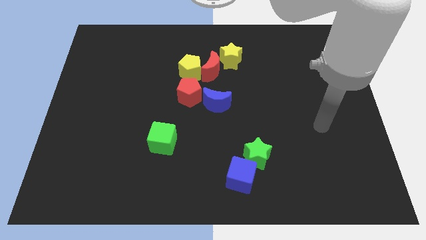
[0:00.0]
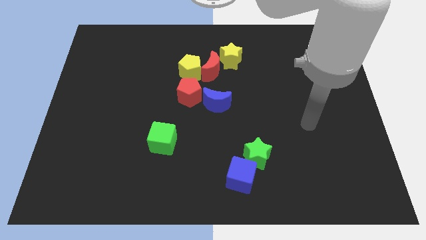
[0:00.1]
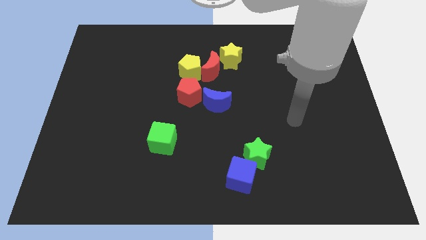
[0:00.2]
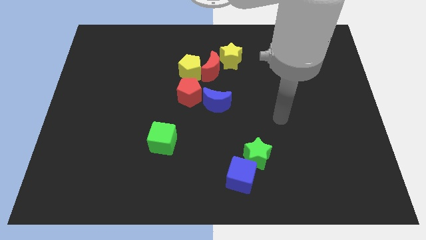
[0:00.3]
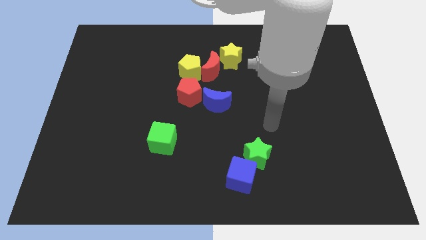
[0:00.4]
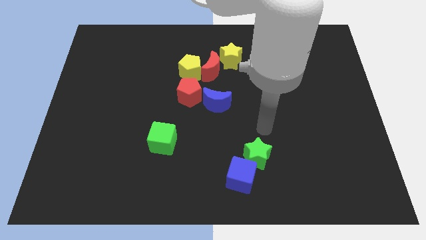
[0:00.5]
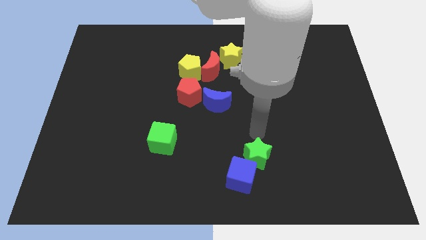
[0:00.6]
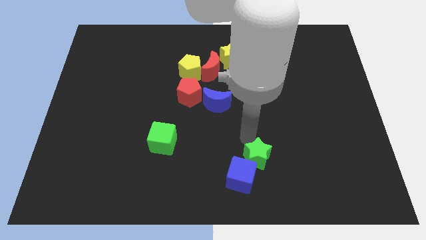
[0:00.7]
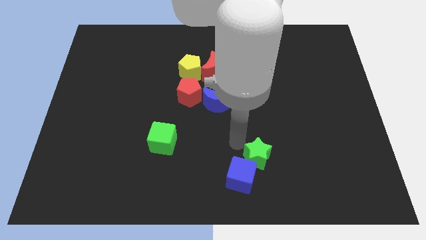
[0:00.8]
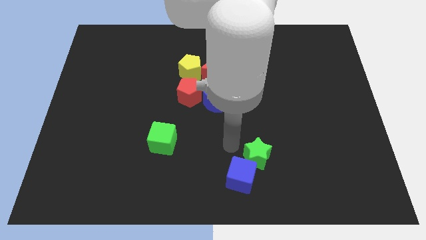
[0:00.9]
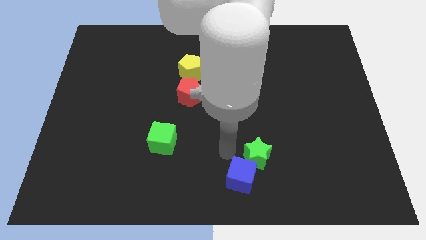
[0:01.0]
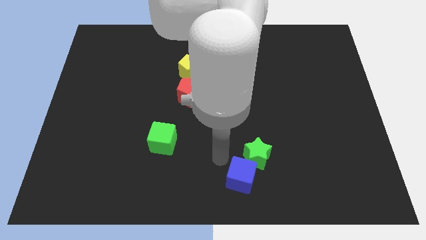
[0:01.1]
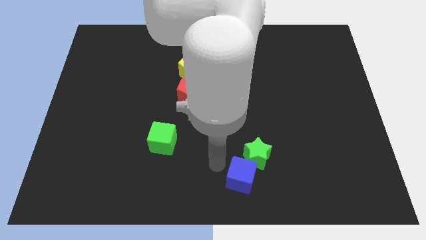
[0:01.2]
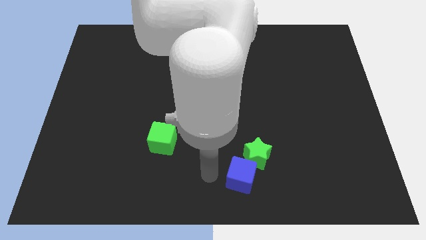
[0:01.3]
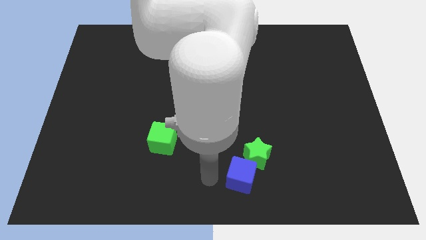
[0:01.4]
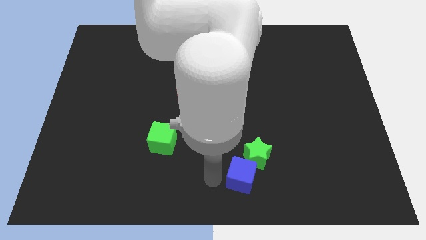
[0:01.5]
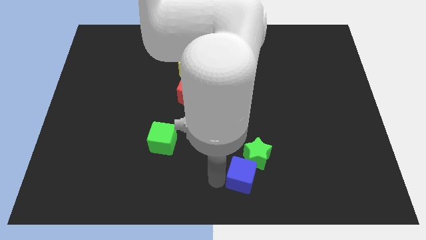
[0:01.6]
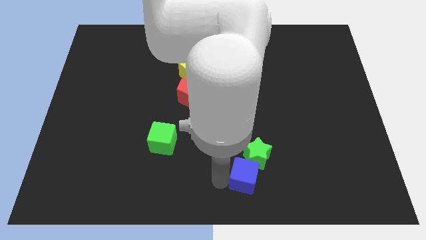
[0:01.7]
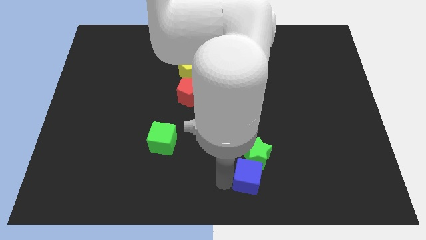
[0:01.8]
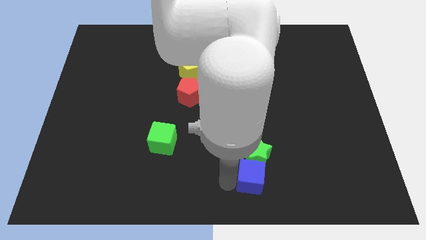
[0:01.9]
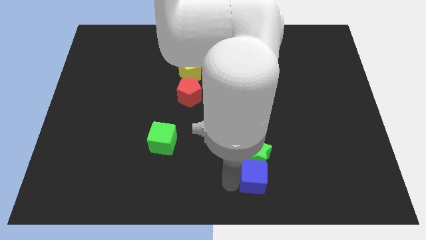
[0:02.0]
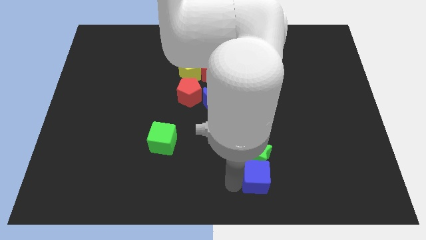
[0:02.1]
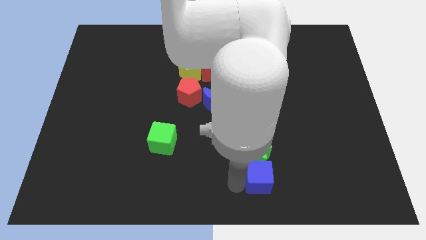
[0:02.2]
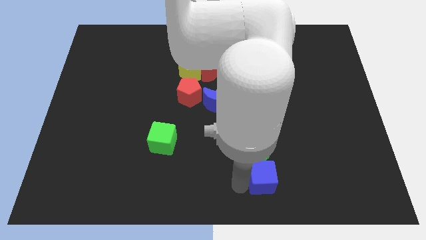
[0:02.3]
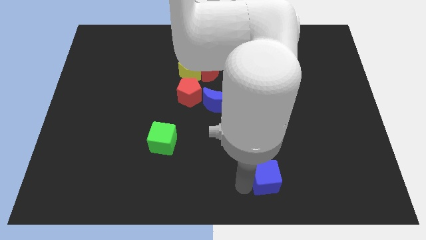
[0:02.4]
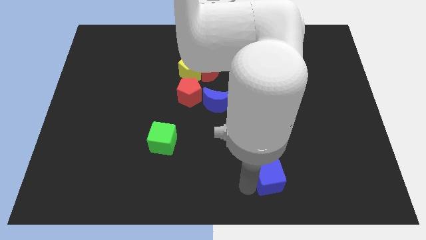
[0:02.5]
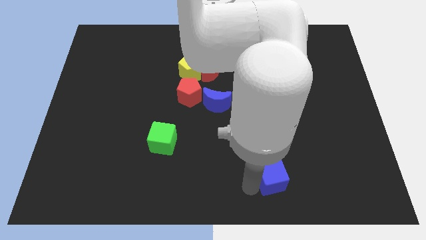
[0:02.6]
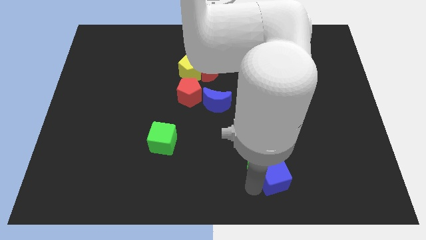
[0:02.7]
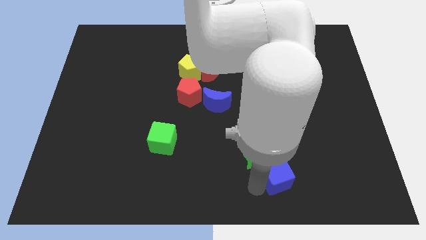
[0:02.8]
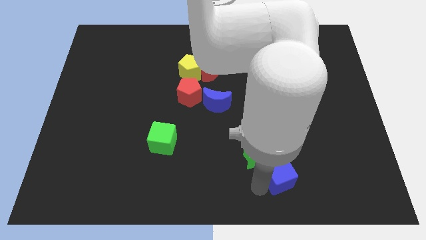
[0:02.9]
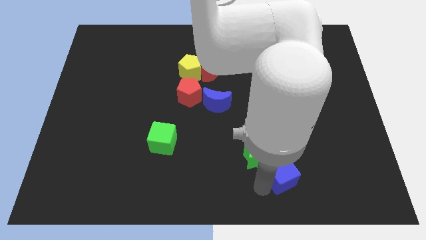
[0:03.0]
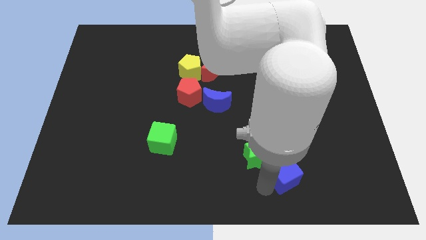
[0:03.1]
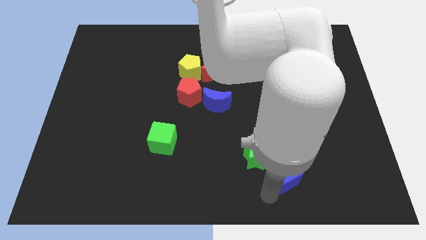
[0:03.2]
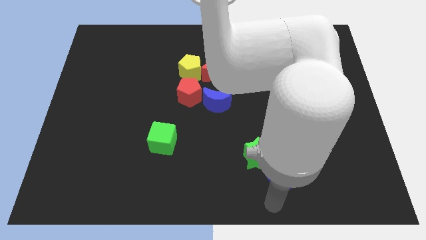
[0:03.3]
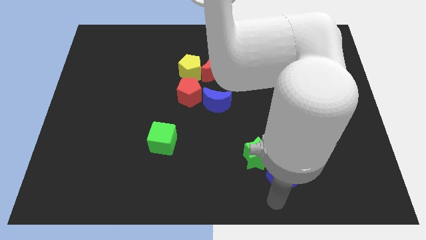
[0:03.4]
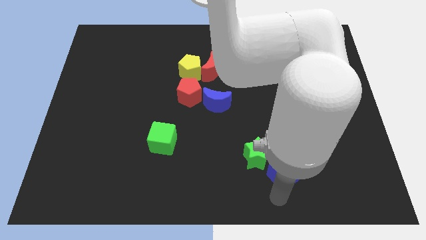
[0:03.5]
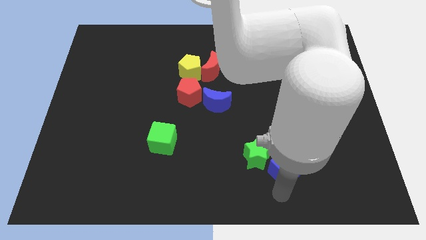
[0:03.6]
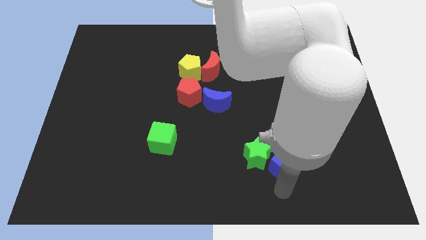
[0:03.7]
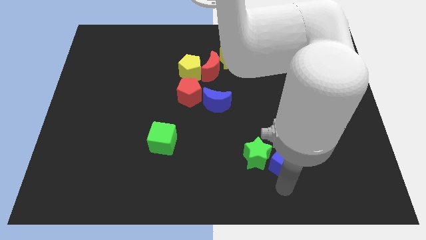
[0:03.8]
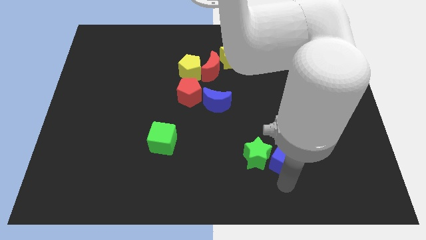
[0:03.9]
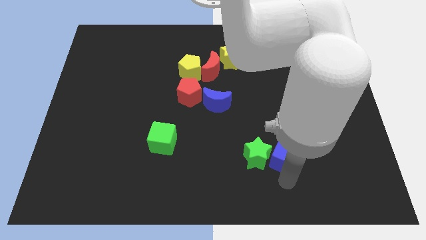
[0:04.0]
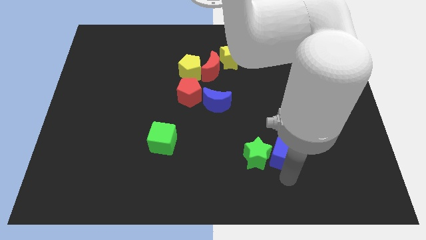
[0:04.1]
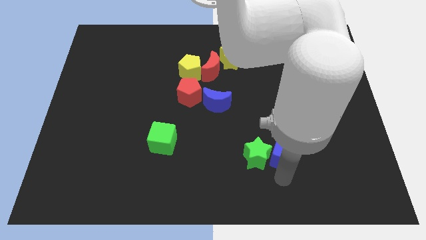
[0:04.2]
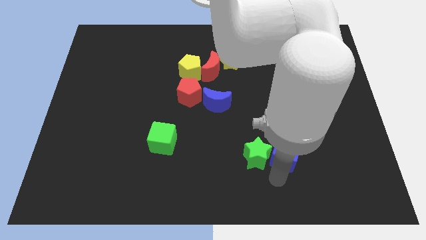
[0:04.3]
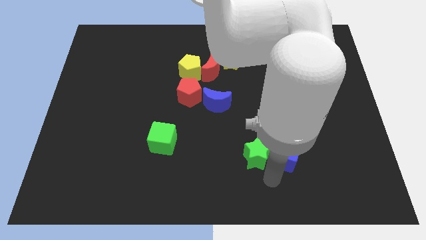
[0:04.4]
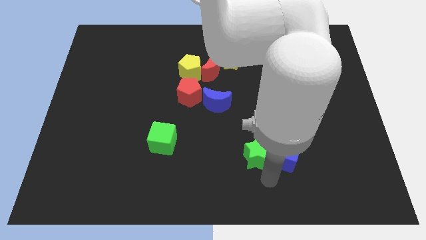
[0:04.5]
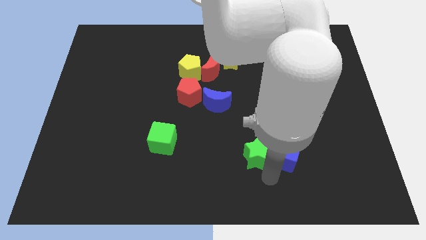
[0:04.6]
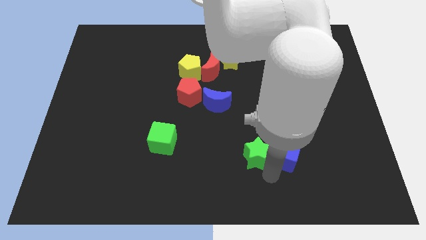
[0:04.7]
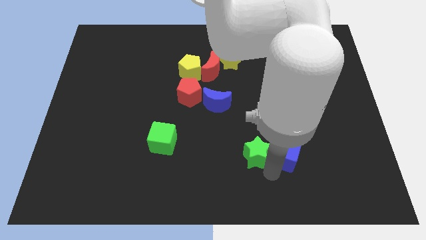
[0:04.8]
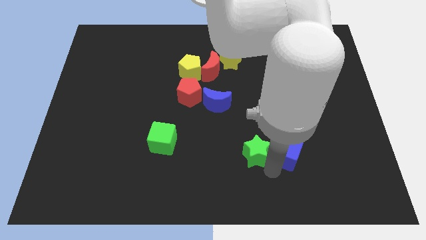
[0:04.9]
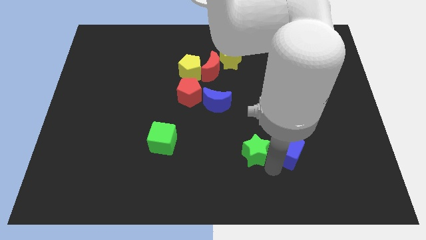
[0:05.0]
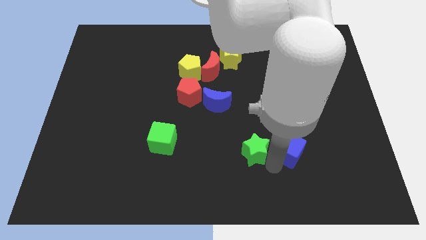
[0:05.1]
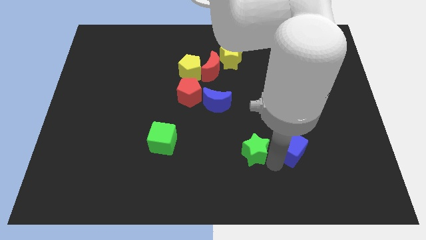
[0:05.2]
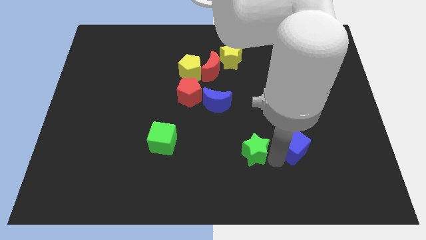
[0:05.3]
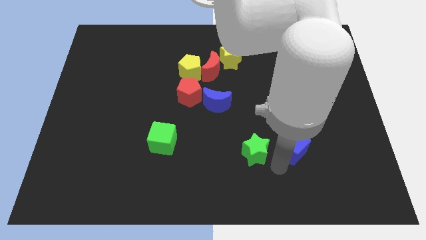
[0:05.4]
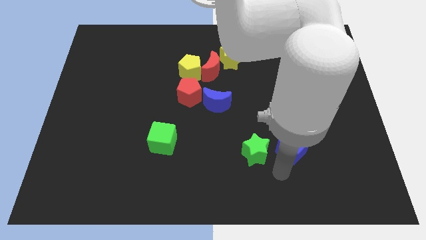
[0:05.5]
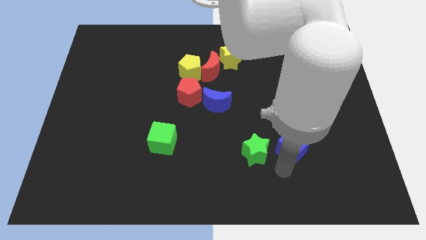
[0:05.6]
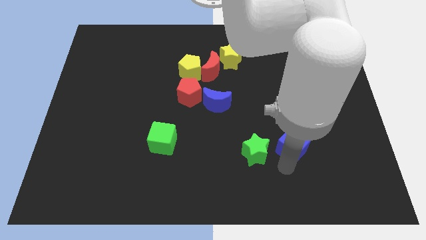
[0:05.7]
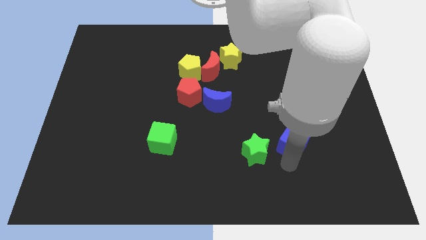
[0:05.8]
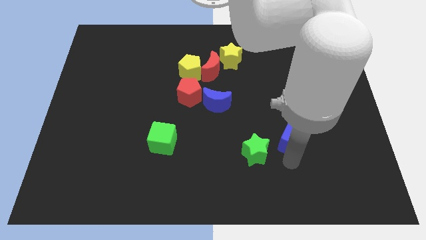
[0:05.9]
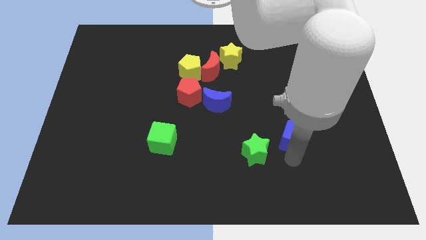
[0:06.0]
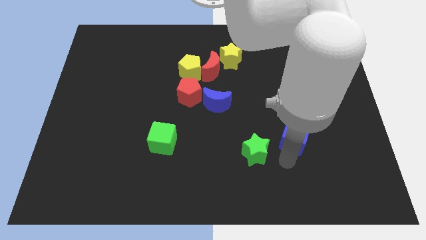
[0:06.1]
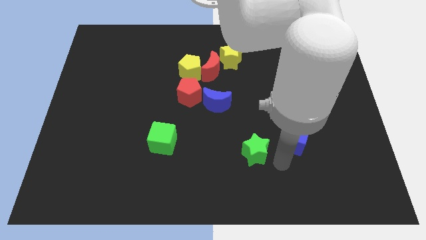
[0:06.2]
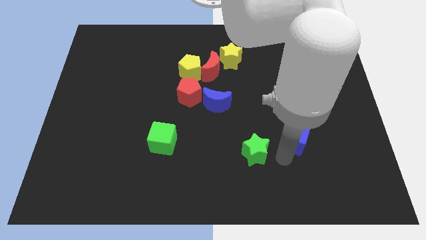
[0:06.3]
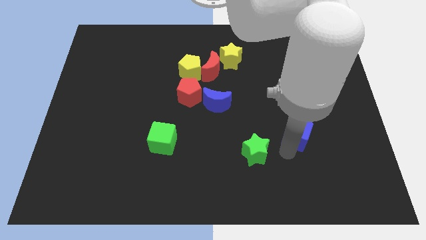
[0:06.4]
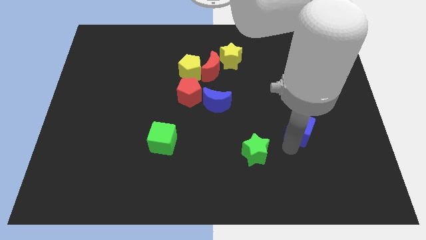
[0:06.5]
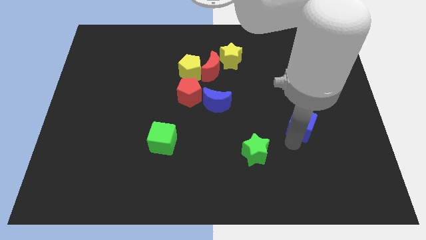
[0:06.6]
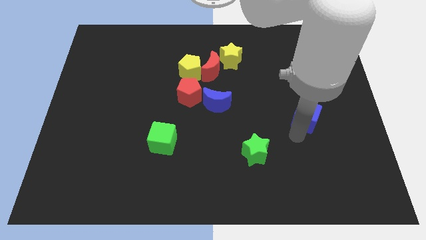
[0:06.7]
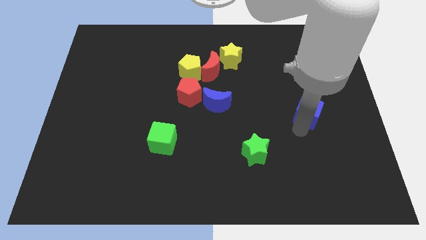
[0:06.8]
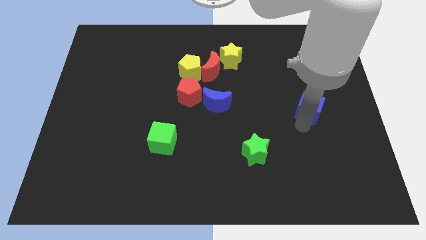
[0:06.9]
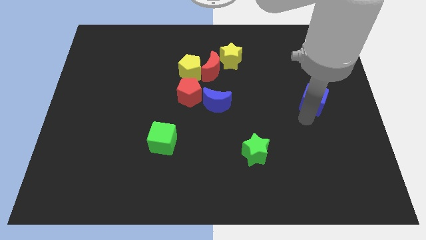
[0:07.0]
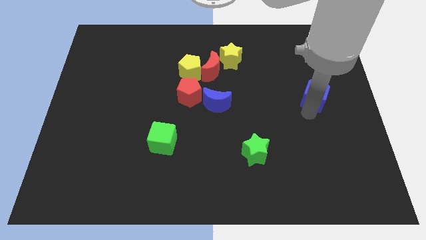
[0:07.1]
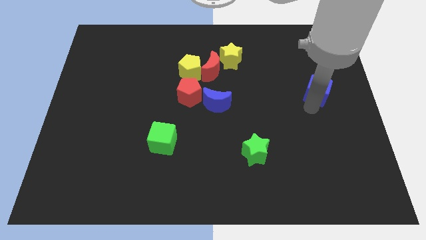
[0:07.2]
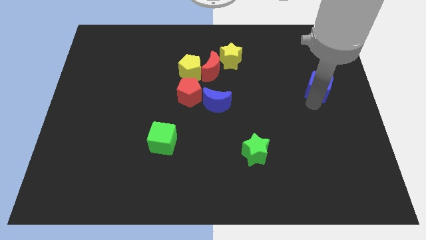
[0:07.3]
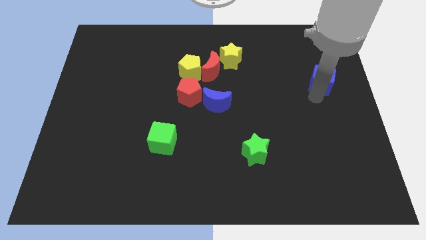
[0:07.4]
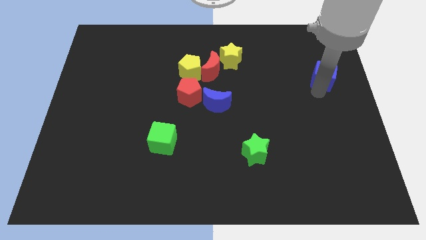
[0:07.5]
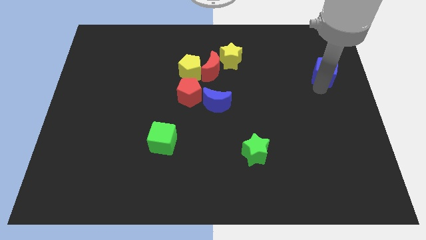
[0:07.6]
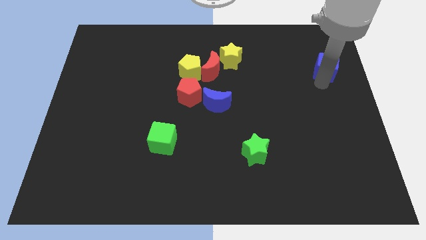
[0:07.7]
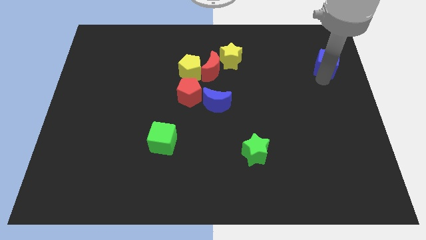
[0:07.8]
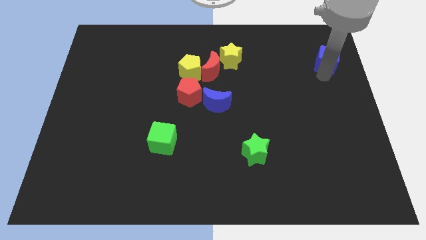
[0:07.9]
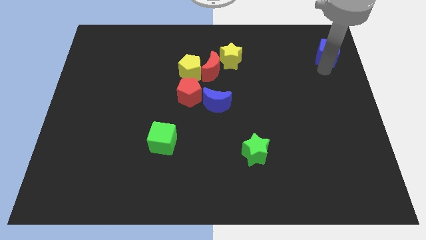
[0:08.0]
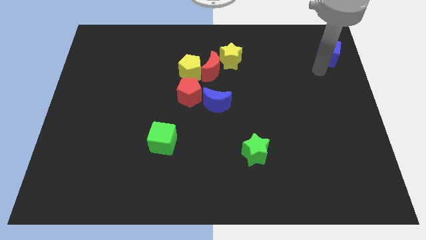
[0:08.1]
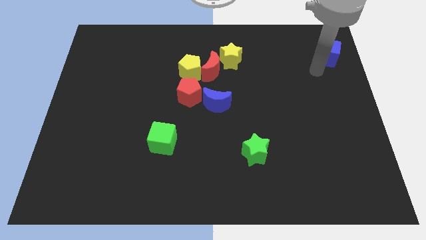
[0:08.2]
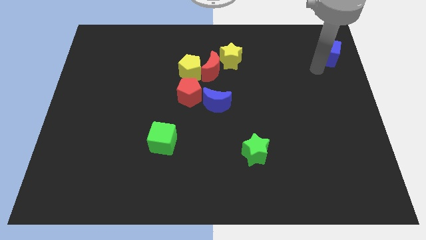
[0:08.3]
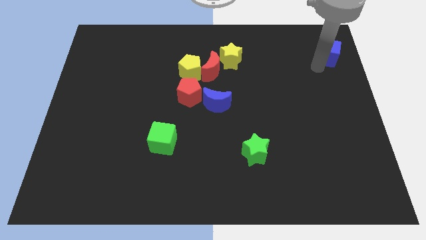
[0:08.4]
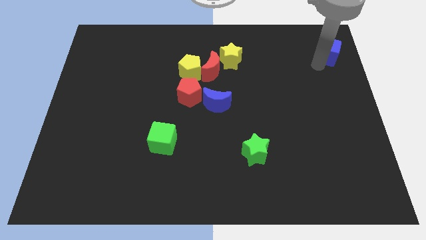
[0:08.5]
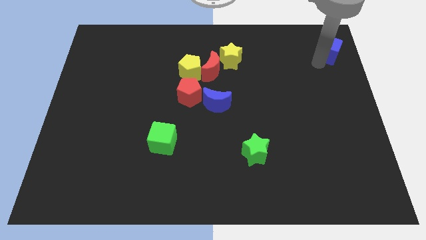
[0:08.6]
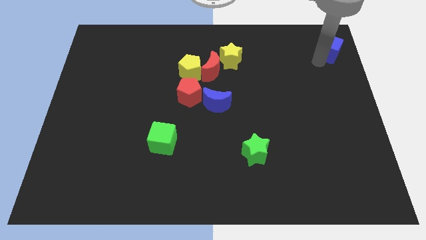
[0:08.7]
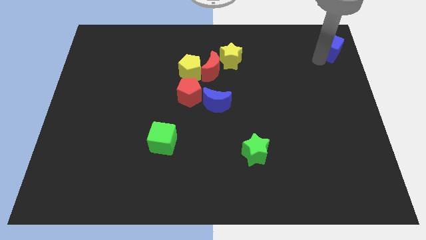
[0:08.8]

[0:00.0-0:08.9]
put the blue cube to the top right
